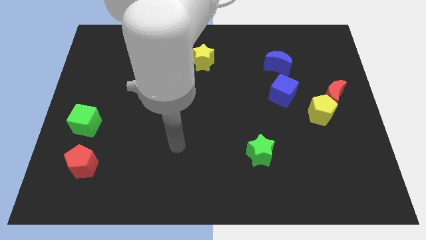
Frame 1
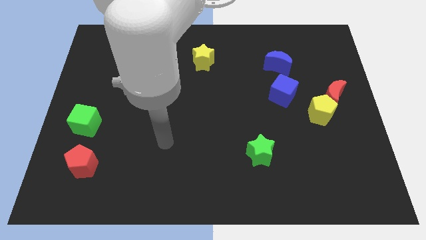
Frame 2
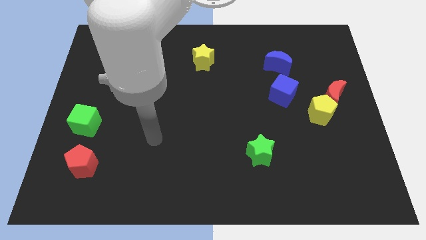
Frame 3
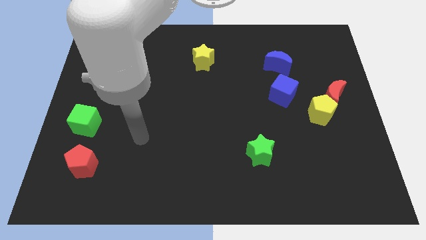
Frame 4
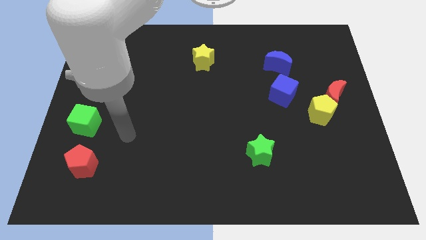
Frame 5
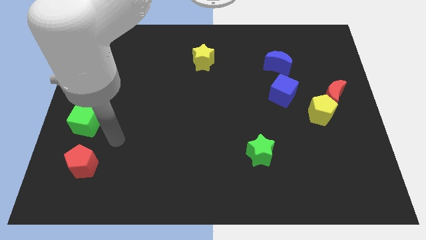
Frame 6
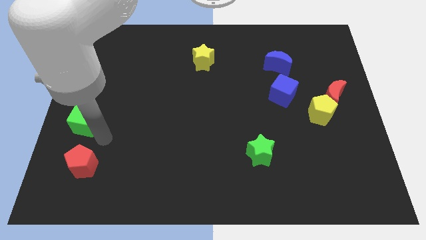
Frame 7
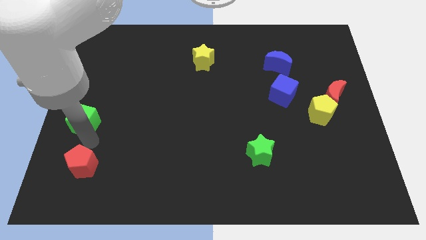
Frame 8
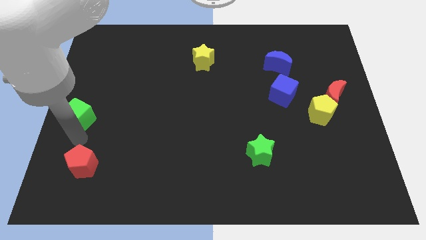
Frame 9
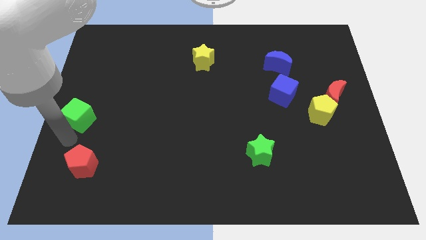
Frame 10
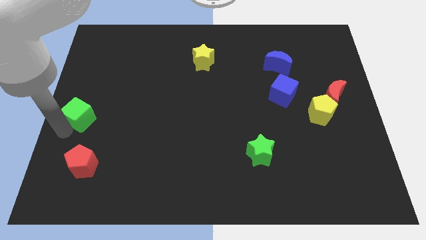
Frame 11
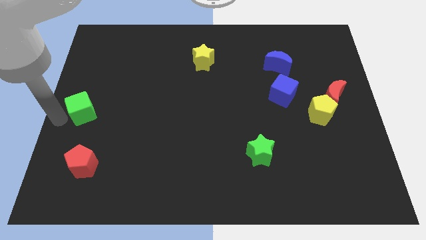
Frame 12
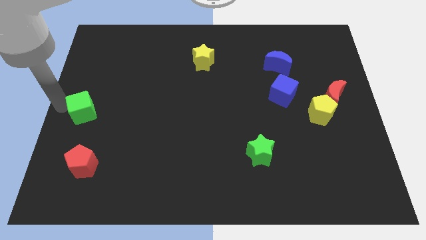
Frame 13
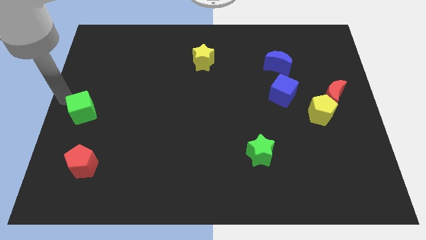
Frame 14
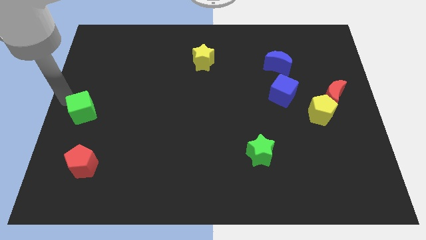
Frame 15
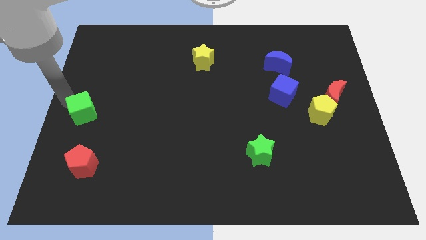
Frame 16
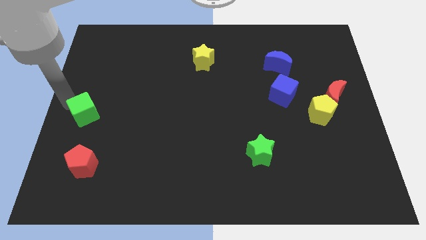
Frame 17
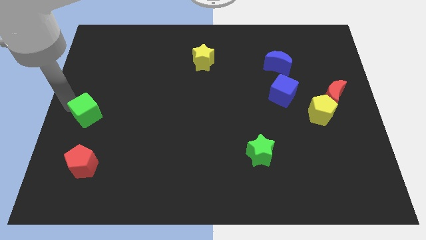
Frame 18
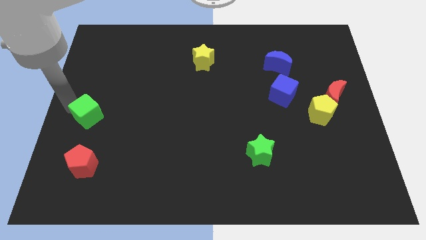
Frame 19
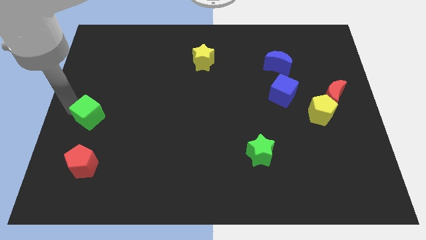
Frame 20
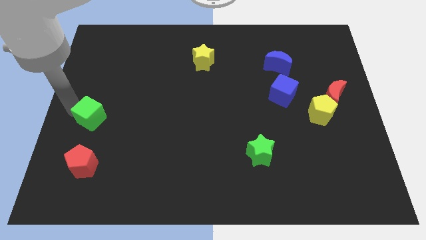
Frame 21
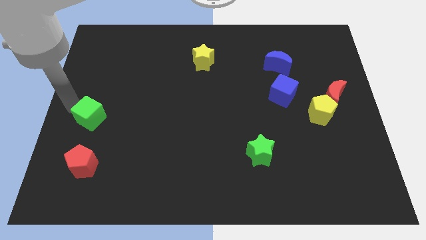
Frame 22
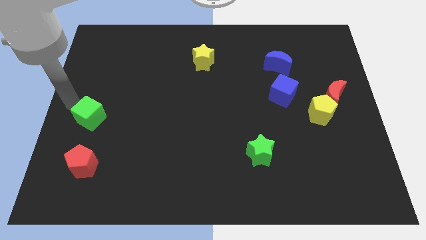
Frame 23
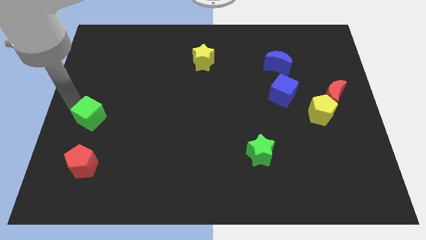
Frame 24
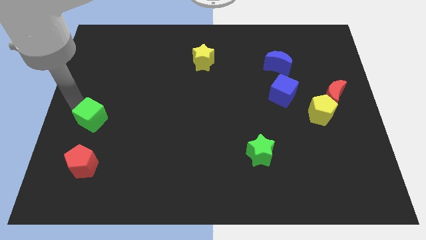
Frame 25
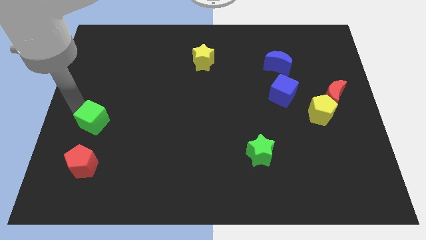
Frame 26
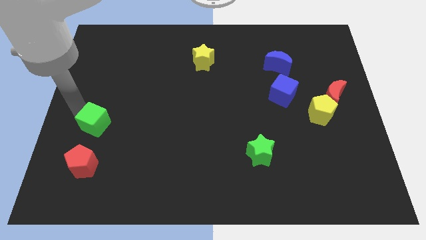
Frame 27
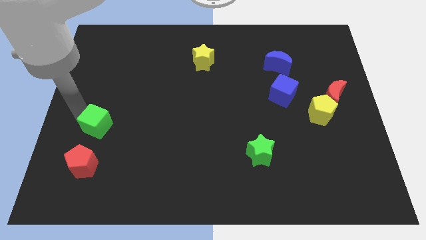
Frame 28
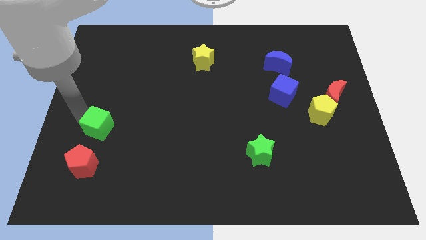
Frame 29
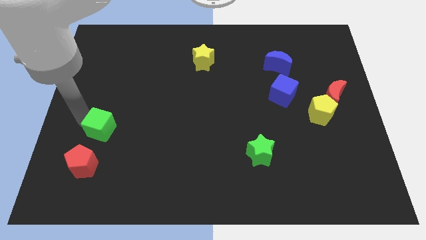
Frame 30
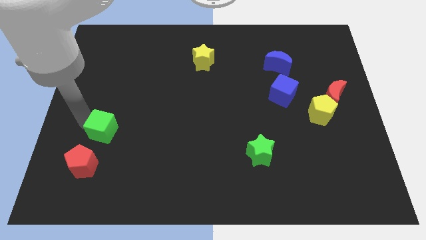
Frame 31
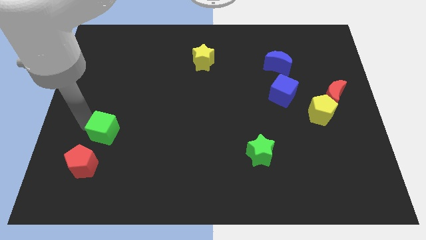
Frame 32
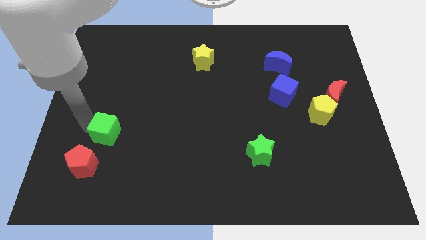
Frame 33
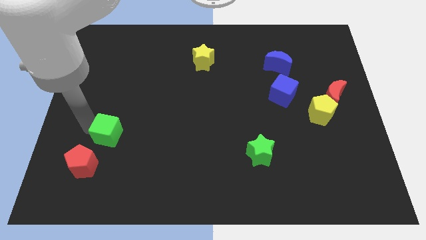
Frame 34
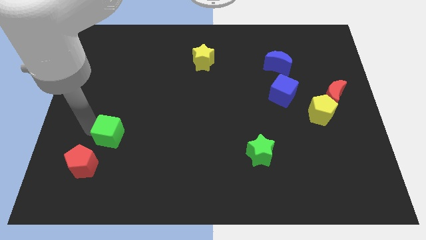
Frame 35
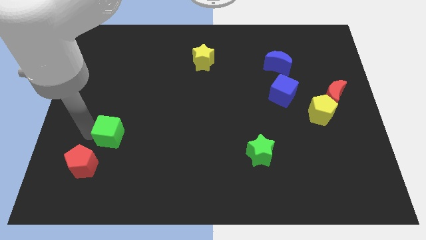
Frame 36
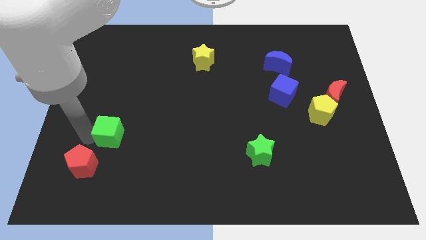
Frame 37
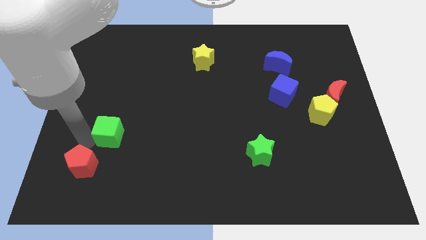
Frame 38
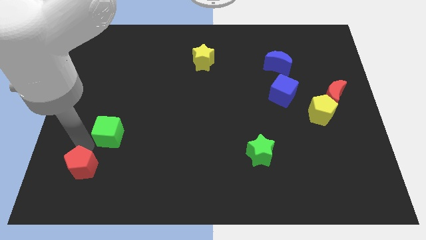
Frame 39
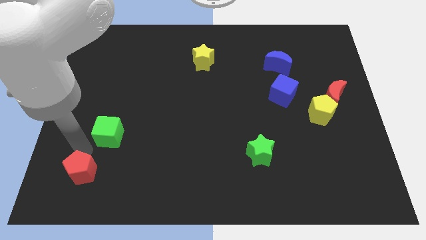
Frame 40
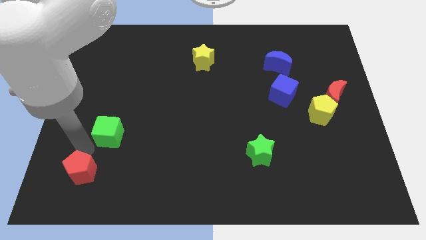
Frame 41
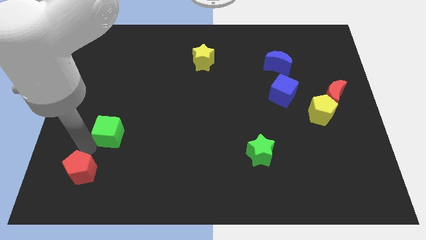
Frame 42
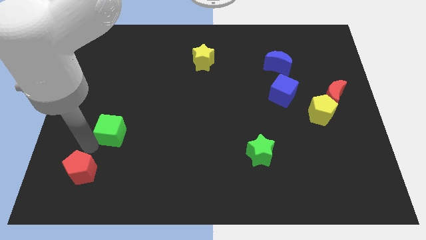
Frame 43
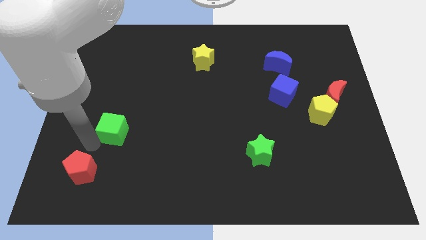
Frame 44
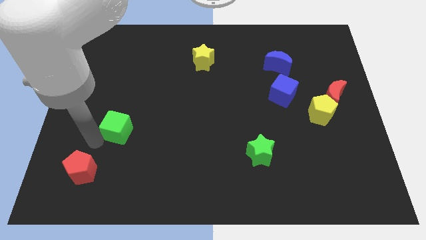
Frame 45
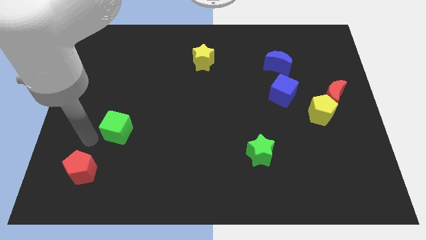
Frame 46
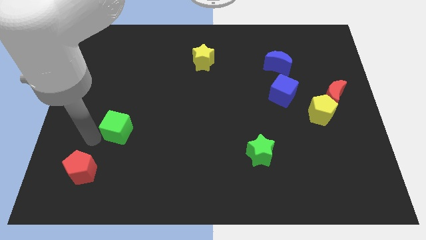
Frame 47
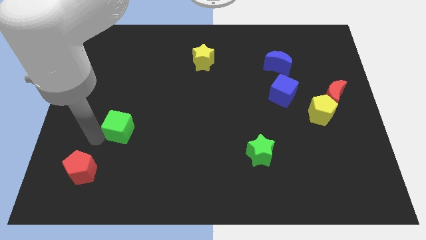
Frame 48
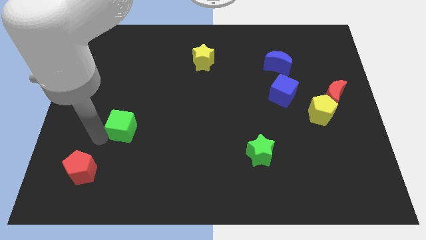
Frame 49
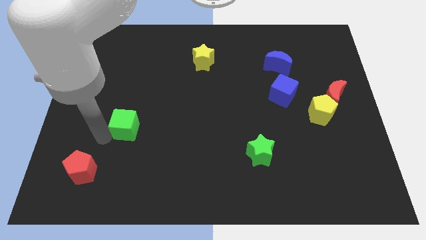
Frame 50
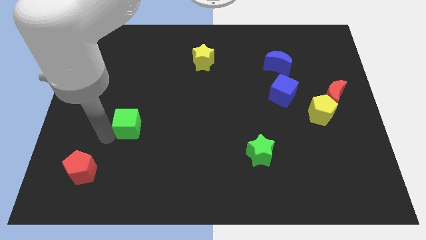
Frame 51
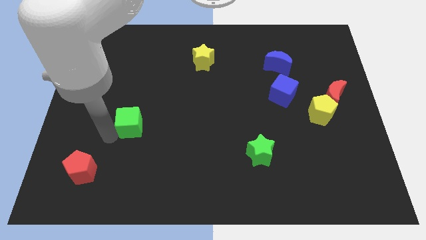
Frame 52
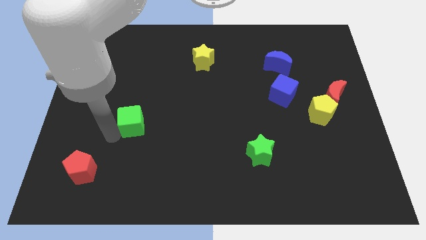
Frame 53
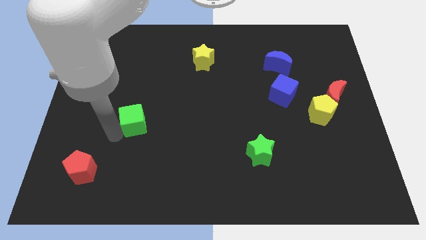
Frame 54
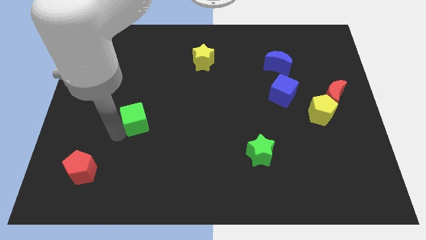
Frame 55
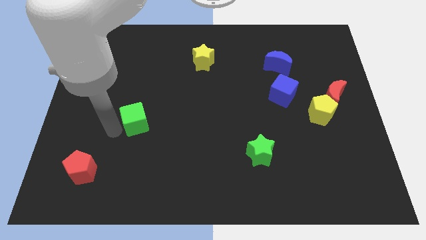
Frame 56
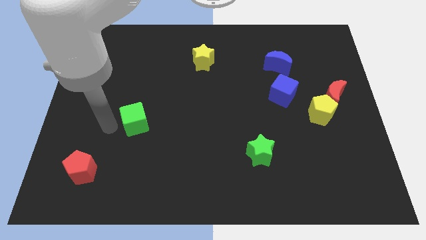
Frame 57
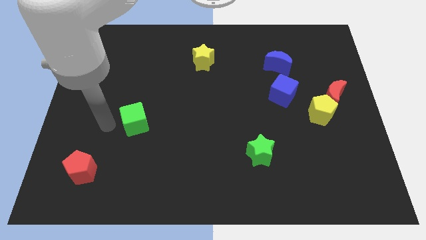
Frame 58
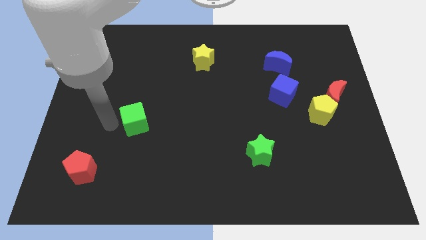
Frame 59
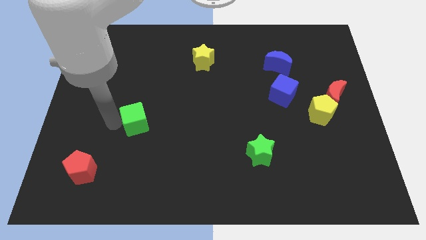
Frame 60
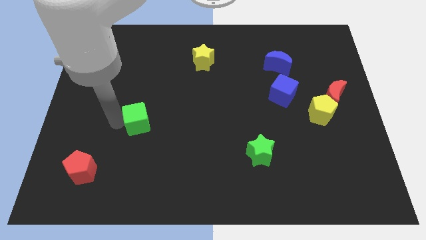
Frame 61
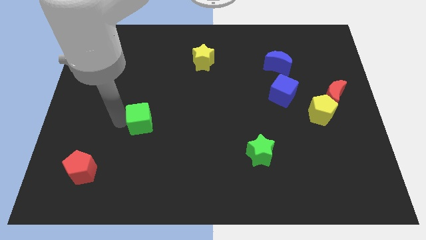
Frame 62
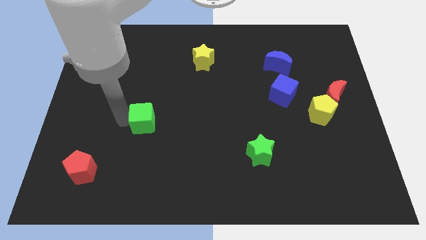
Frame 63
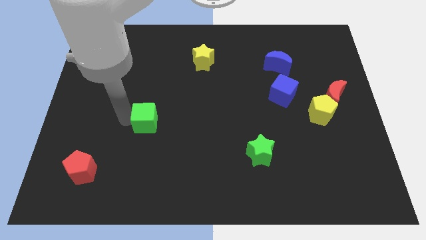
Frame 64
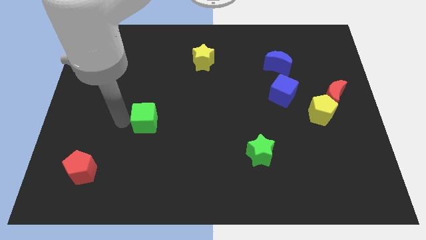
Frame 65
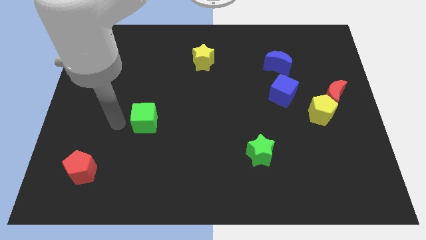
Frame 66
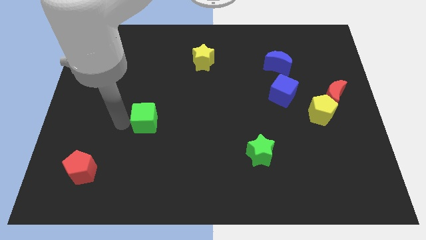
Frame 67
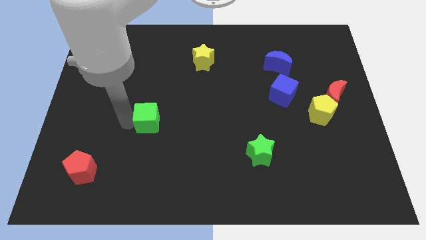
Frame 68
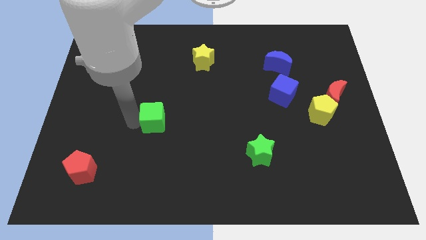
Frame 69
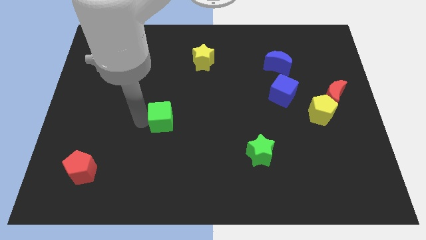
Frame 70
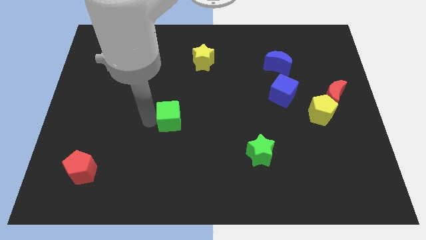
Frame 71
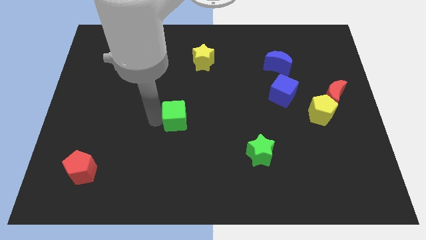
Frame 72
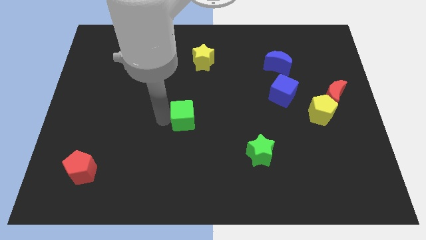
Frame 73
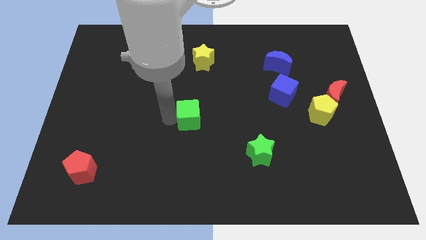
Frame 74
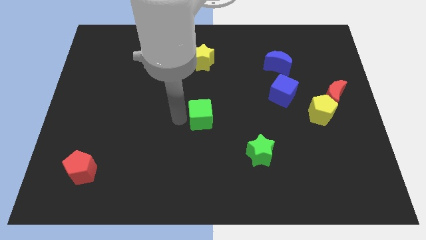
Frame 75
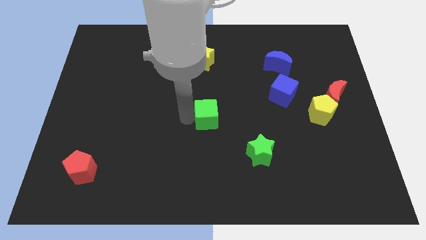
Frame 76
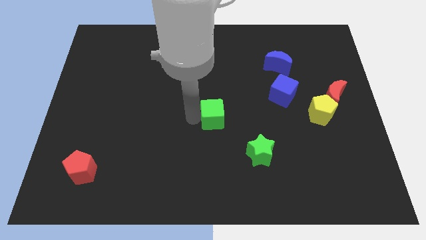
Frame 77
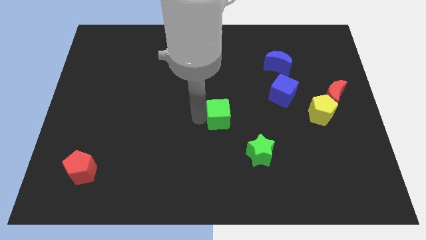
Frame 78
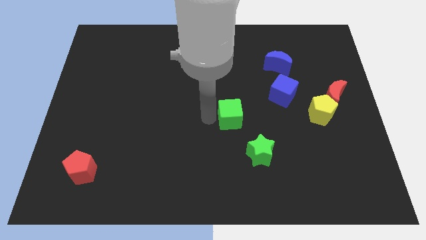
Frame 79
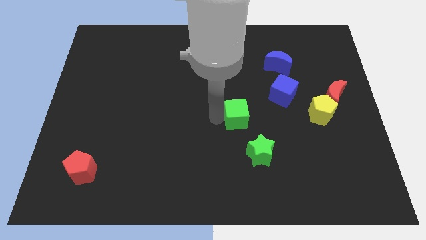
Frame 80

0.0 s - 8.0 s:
put the green cube above the green star
